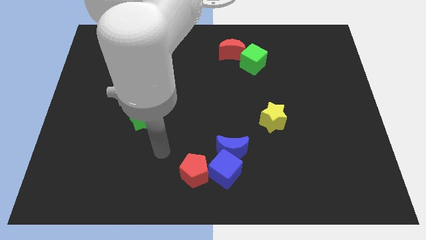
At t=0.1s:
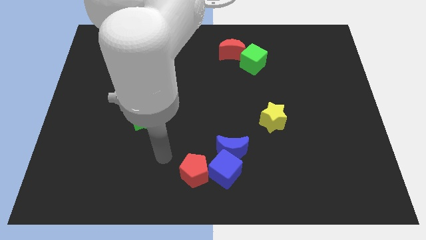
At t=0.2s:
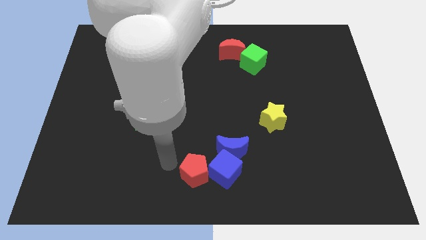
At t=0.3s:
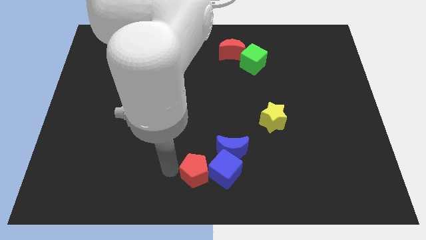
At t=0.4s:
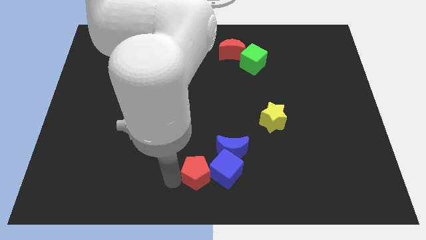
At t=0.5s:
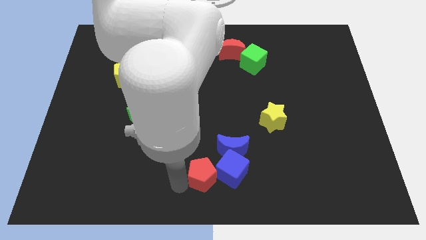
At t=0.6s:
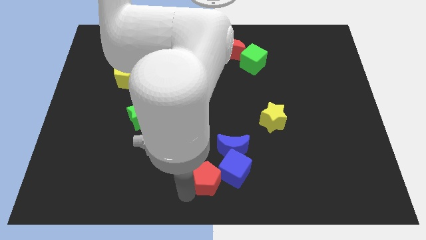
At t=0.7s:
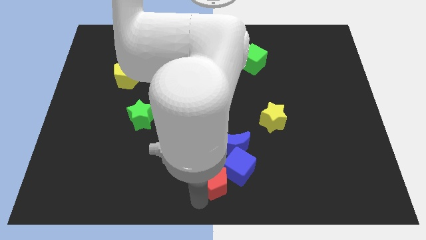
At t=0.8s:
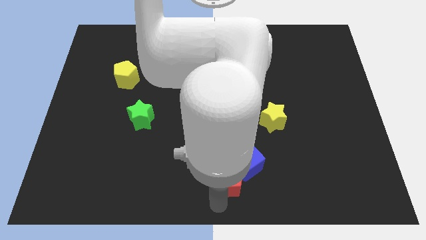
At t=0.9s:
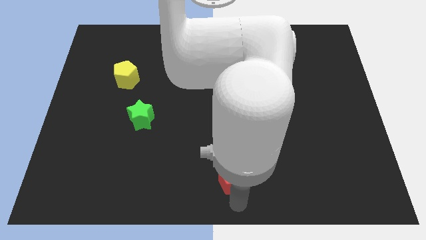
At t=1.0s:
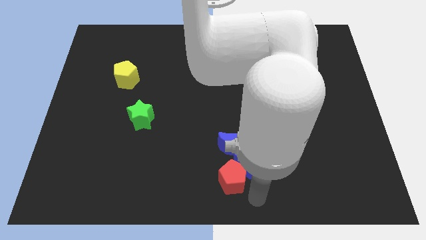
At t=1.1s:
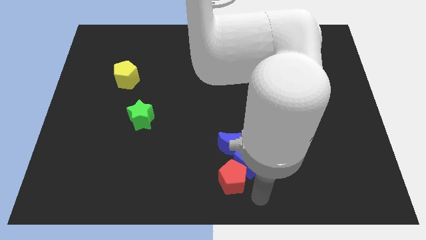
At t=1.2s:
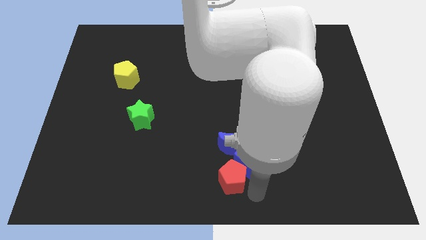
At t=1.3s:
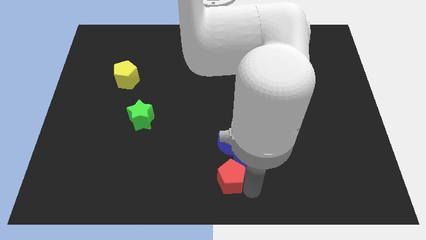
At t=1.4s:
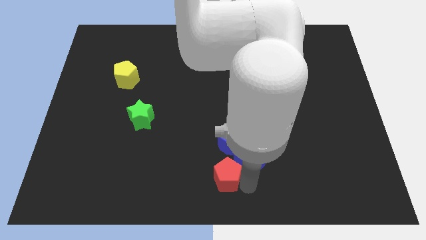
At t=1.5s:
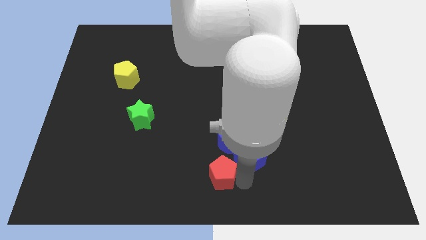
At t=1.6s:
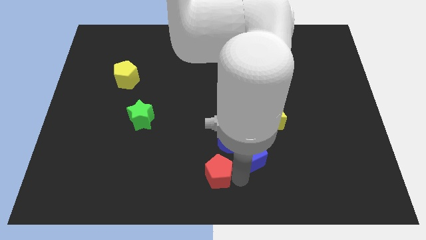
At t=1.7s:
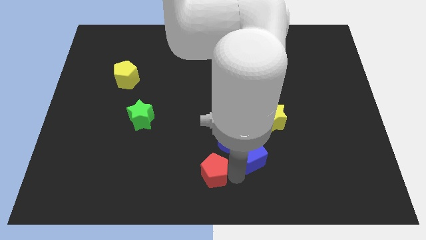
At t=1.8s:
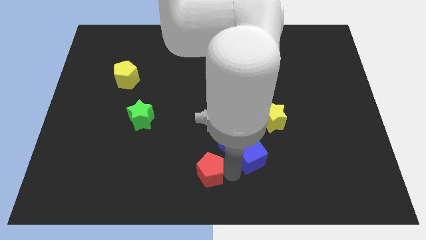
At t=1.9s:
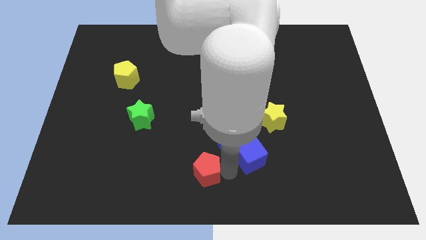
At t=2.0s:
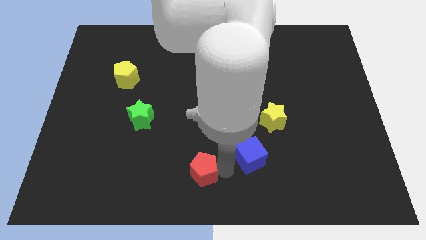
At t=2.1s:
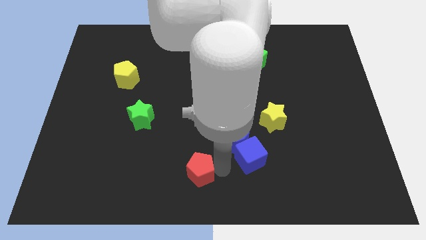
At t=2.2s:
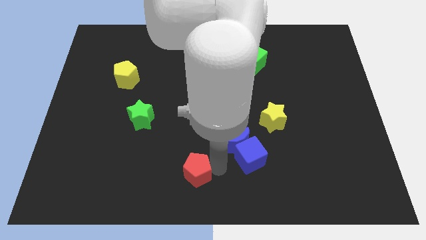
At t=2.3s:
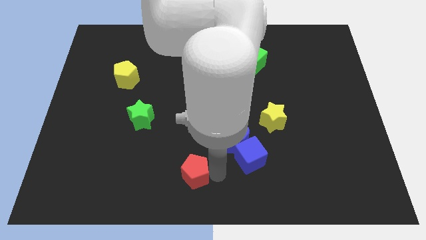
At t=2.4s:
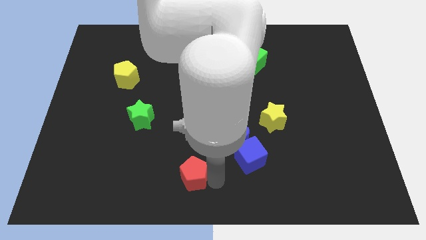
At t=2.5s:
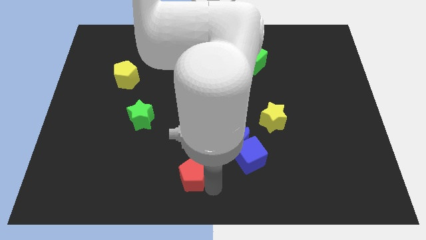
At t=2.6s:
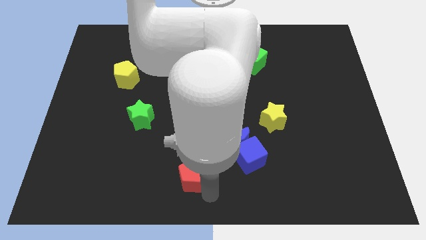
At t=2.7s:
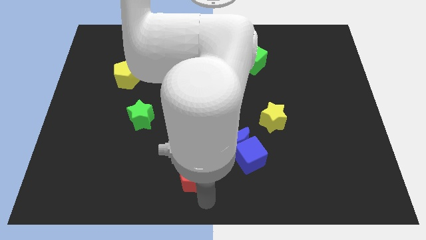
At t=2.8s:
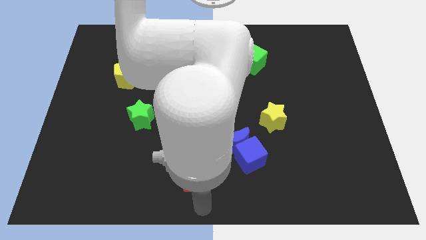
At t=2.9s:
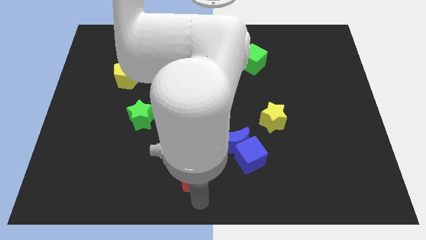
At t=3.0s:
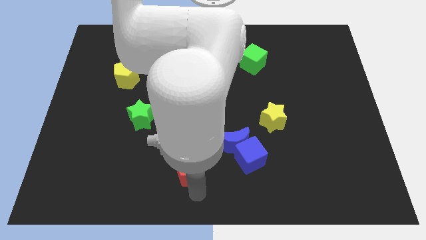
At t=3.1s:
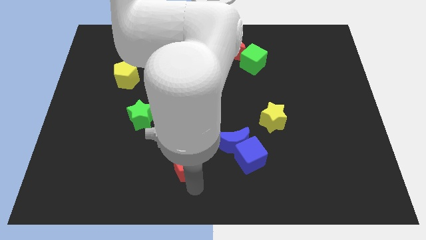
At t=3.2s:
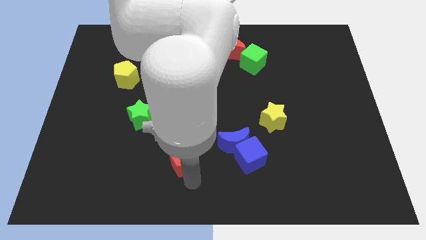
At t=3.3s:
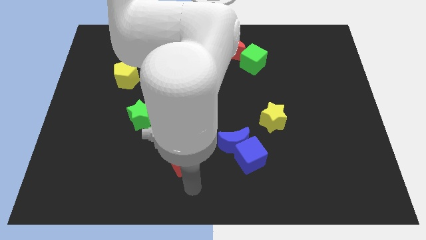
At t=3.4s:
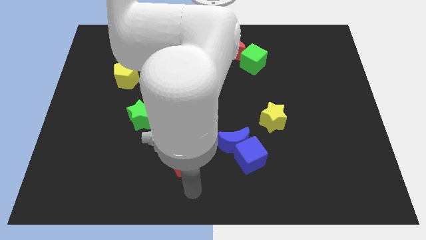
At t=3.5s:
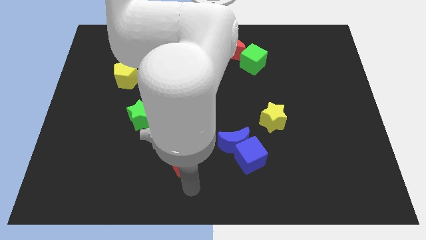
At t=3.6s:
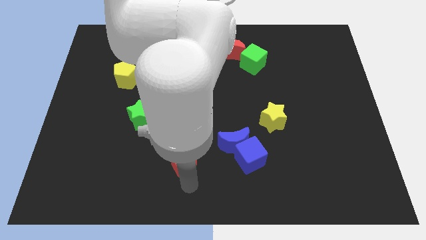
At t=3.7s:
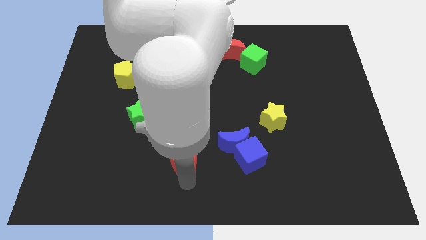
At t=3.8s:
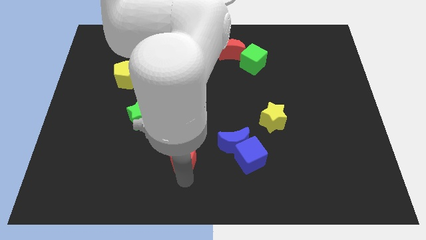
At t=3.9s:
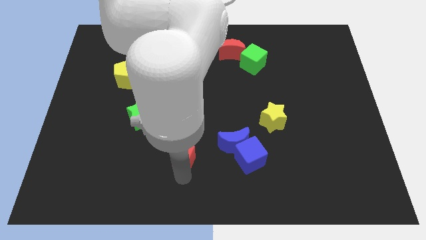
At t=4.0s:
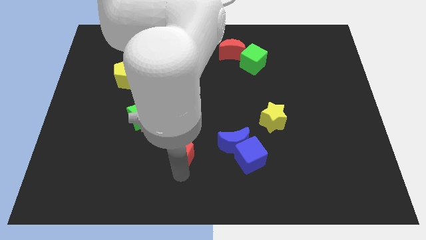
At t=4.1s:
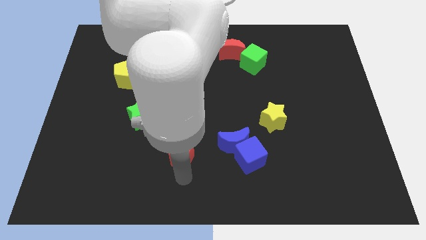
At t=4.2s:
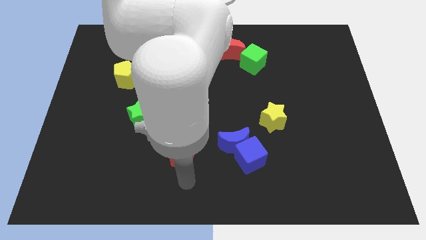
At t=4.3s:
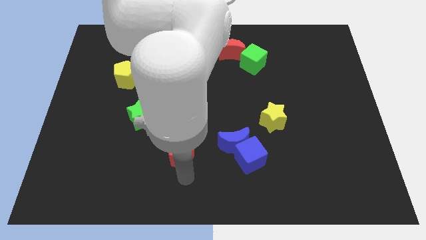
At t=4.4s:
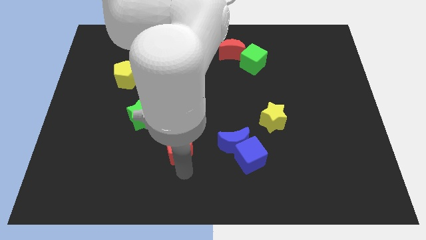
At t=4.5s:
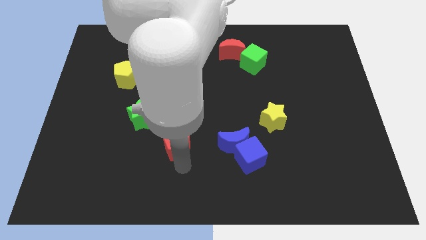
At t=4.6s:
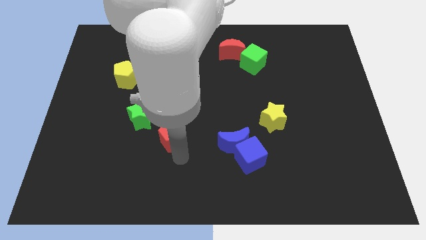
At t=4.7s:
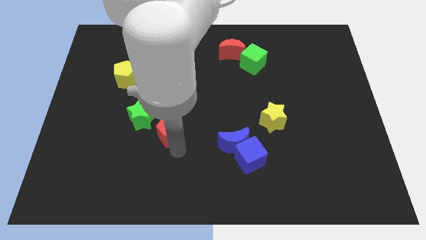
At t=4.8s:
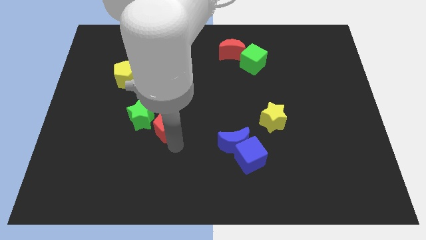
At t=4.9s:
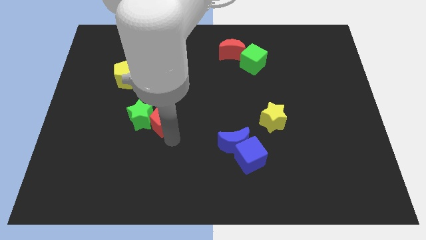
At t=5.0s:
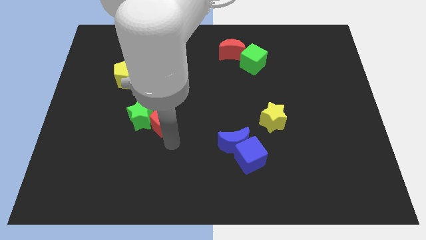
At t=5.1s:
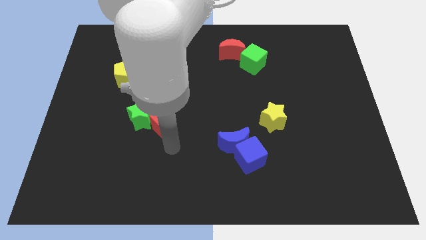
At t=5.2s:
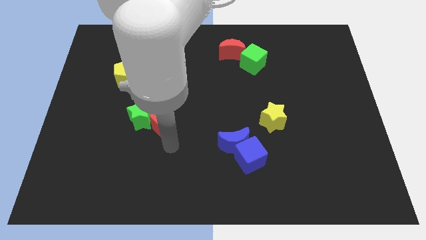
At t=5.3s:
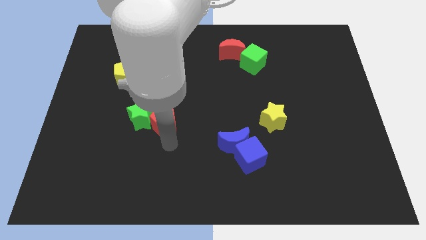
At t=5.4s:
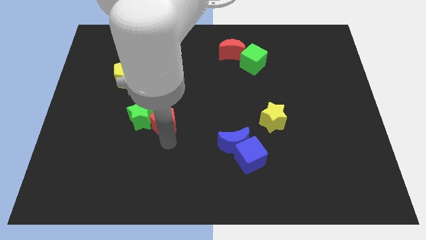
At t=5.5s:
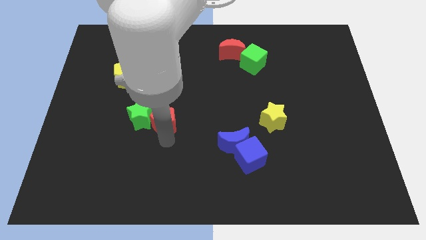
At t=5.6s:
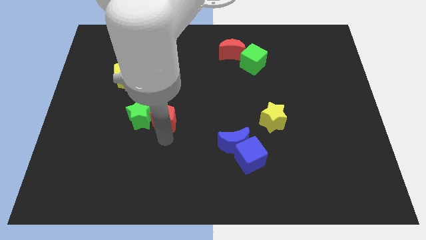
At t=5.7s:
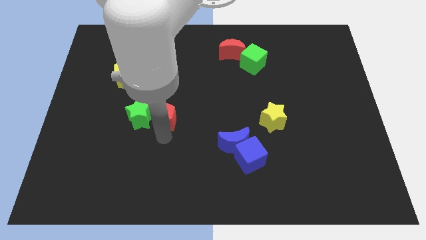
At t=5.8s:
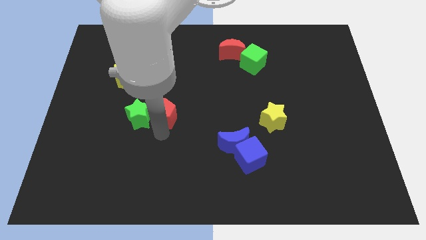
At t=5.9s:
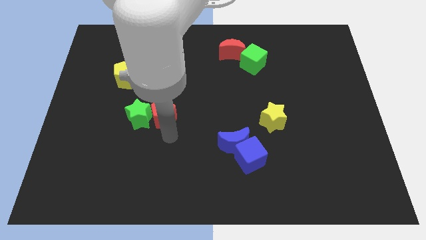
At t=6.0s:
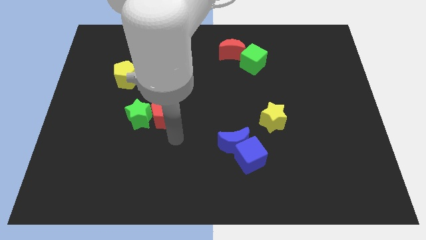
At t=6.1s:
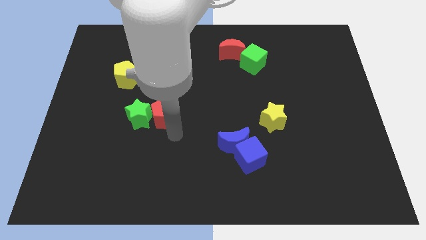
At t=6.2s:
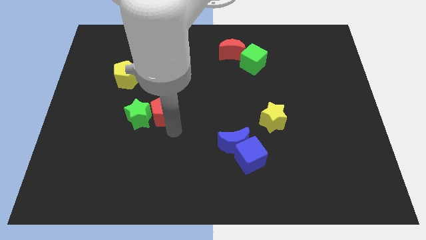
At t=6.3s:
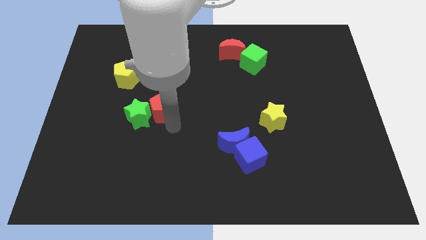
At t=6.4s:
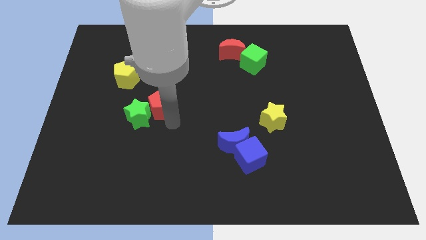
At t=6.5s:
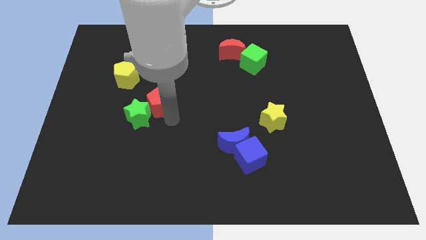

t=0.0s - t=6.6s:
put the red pentagon above the green star
